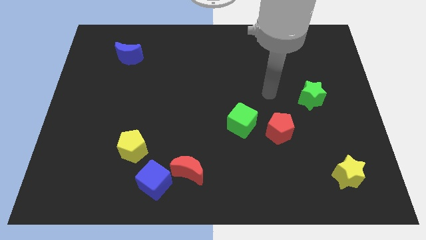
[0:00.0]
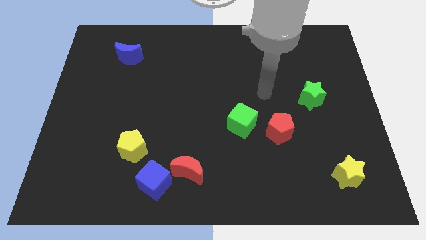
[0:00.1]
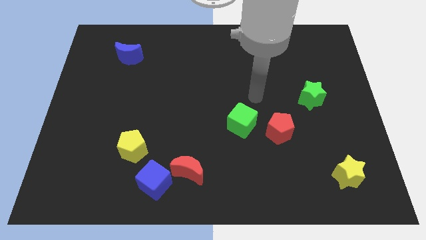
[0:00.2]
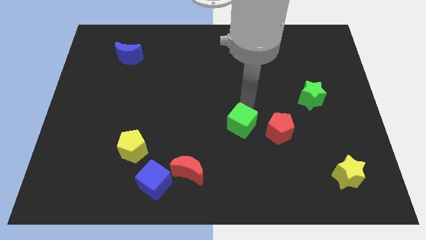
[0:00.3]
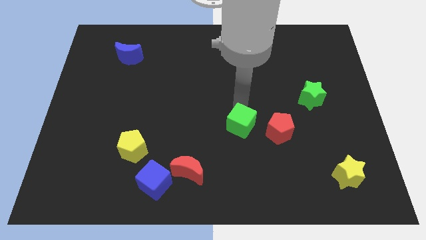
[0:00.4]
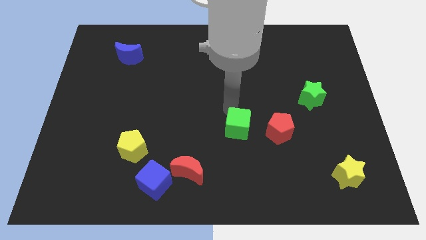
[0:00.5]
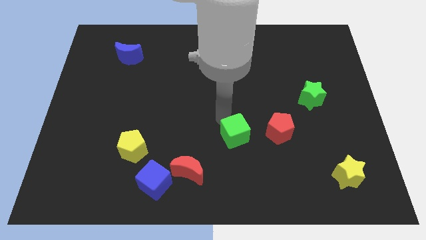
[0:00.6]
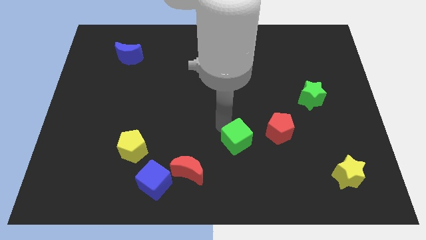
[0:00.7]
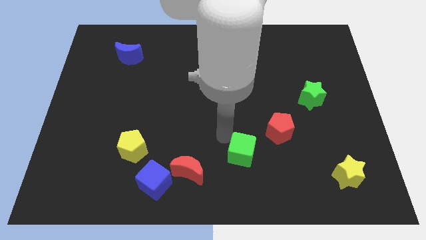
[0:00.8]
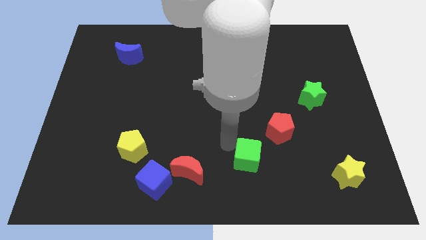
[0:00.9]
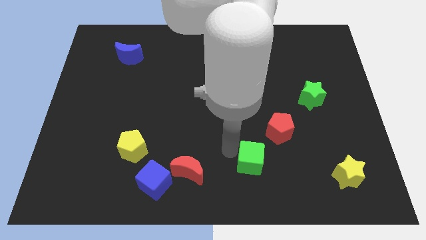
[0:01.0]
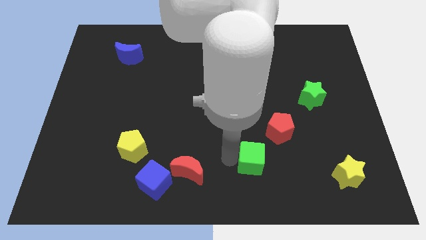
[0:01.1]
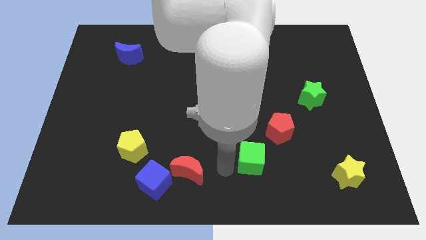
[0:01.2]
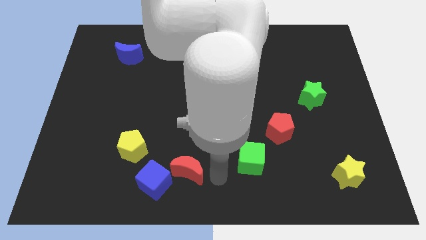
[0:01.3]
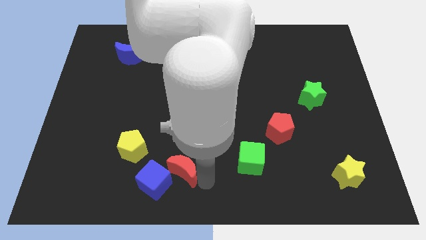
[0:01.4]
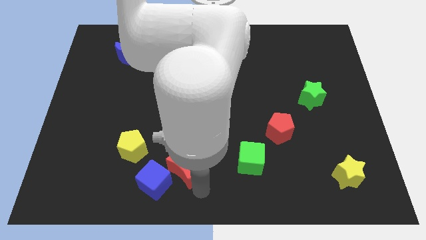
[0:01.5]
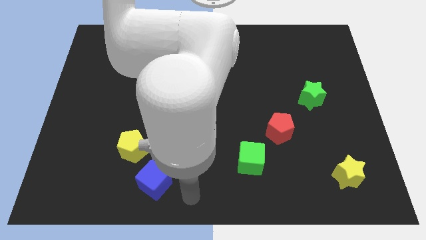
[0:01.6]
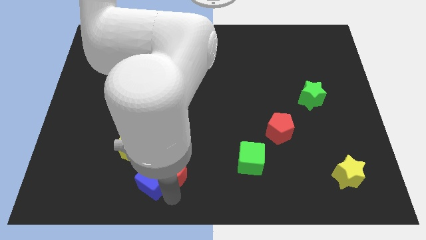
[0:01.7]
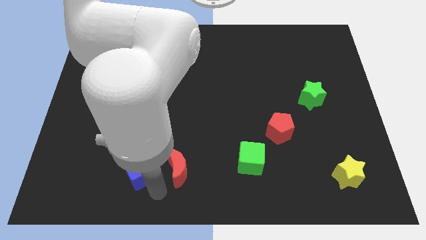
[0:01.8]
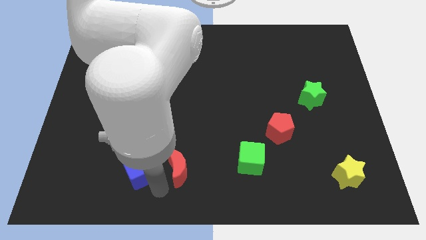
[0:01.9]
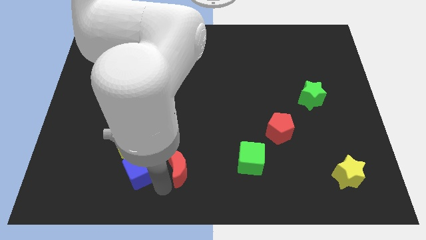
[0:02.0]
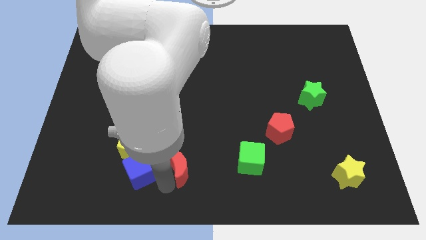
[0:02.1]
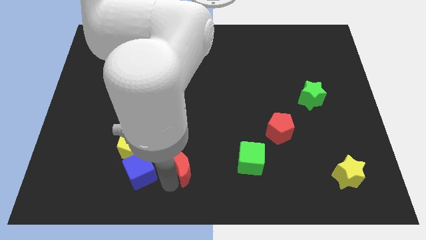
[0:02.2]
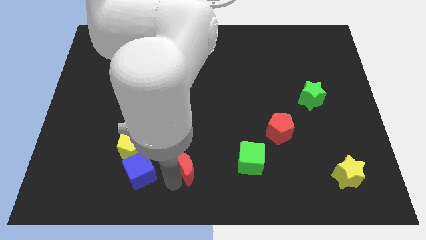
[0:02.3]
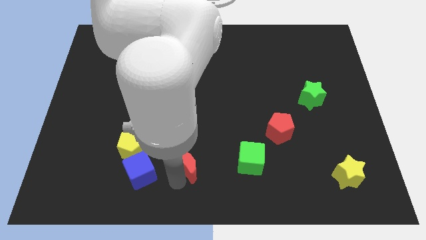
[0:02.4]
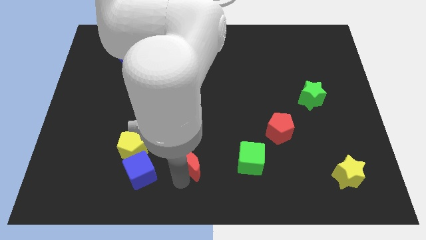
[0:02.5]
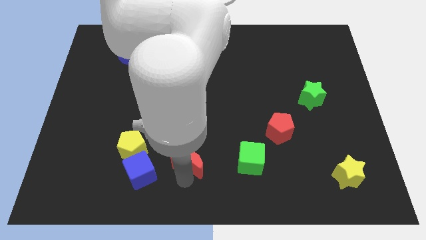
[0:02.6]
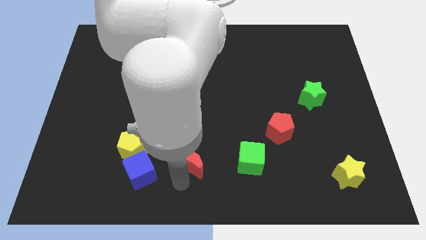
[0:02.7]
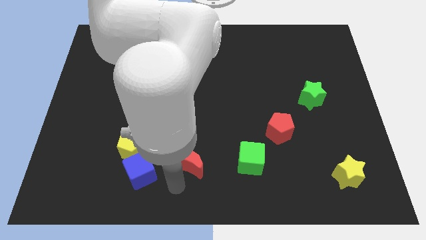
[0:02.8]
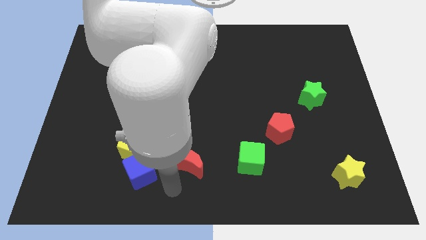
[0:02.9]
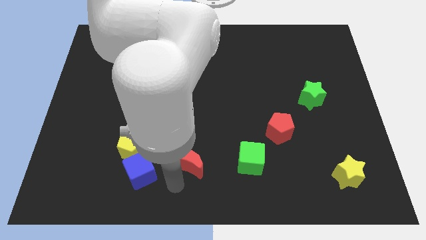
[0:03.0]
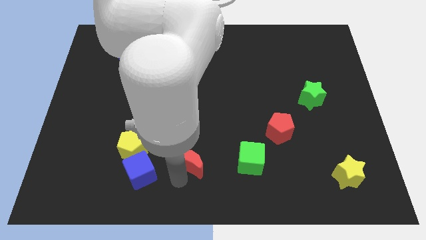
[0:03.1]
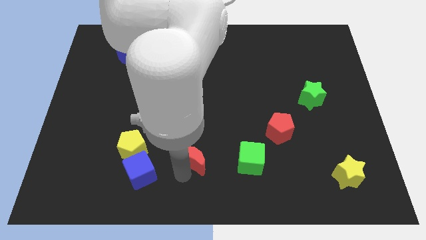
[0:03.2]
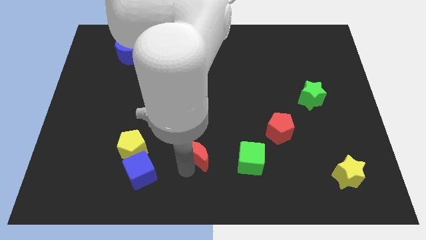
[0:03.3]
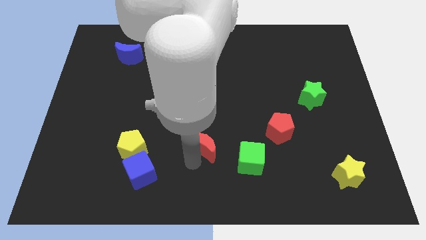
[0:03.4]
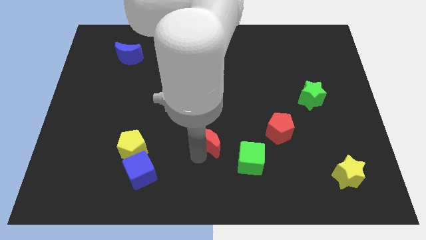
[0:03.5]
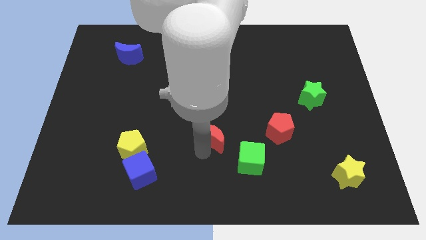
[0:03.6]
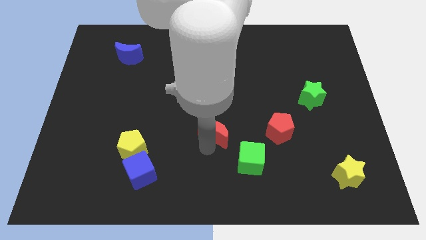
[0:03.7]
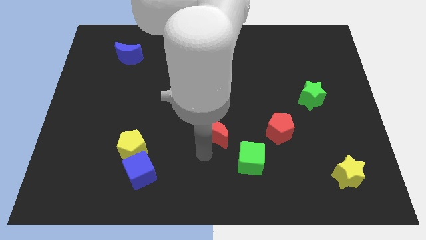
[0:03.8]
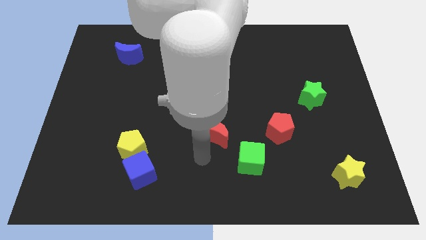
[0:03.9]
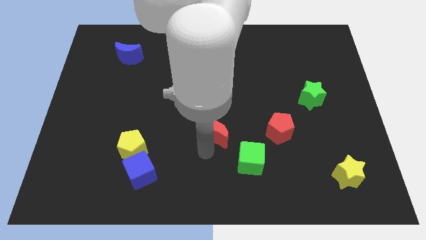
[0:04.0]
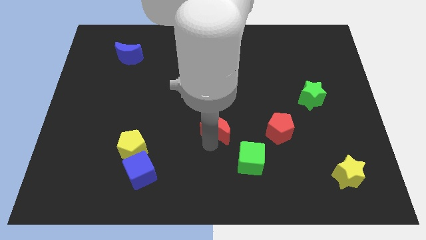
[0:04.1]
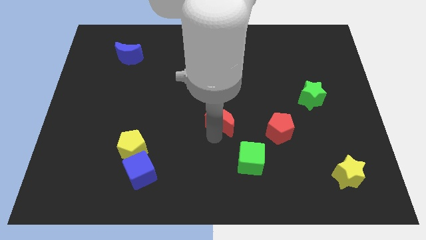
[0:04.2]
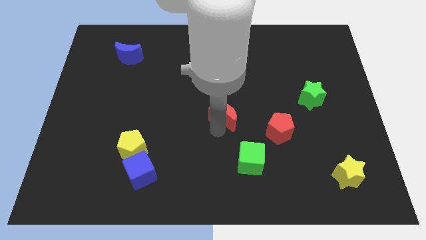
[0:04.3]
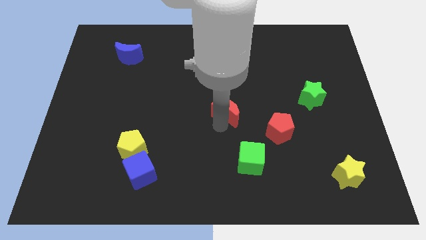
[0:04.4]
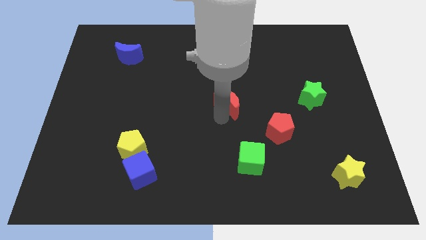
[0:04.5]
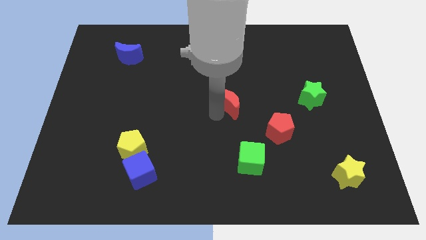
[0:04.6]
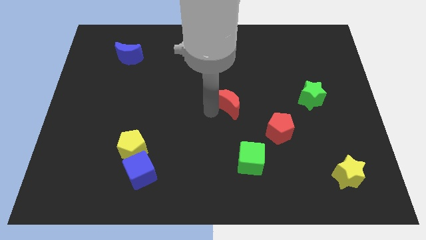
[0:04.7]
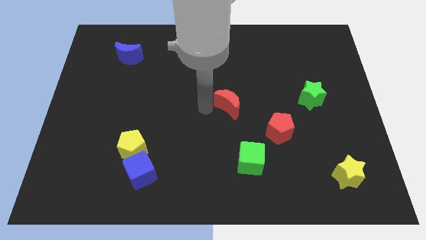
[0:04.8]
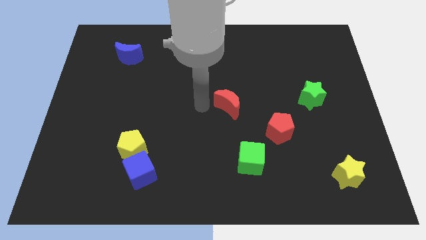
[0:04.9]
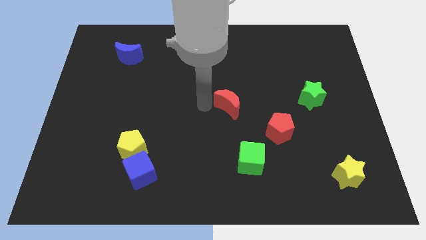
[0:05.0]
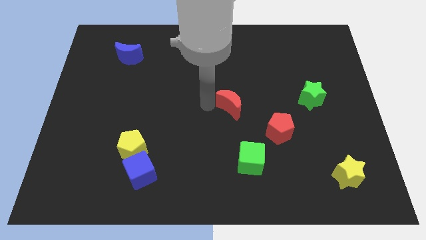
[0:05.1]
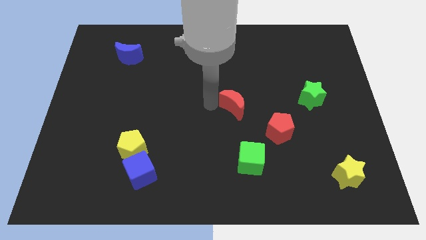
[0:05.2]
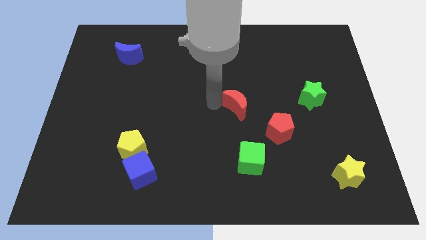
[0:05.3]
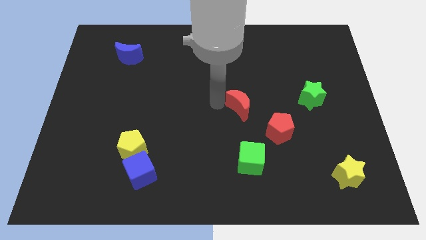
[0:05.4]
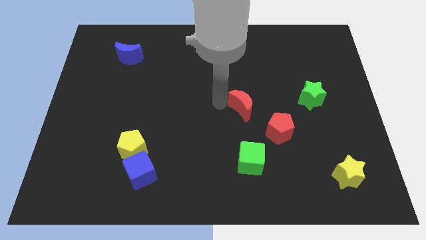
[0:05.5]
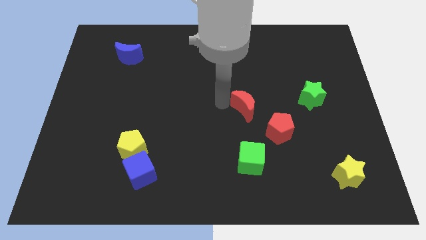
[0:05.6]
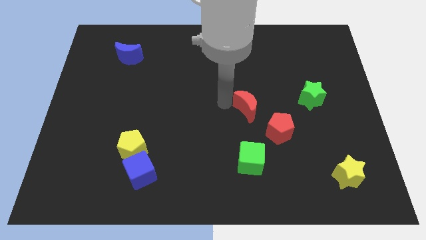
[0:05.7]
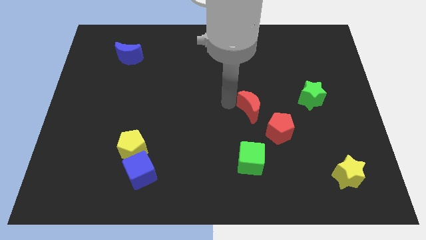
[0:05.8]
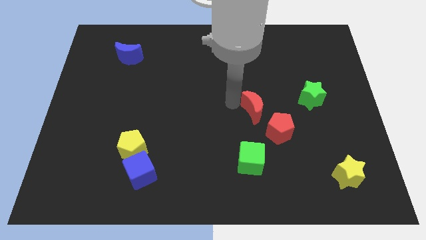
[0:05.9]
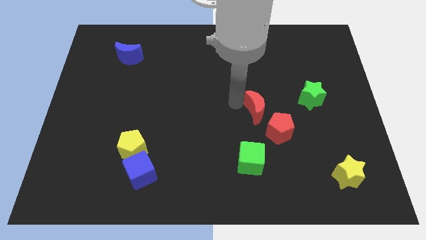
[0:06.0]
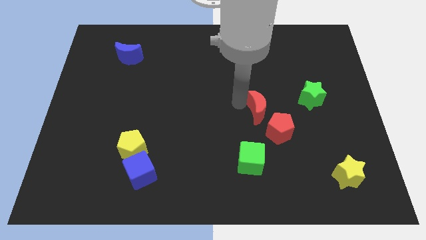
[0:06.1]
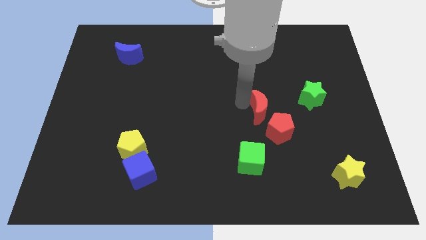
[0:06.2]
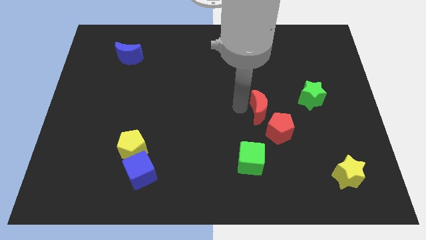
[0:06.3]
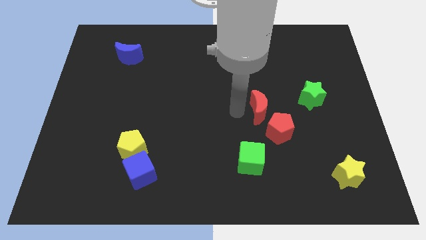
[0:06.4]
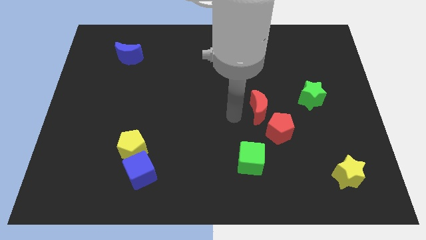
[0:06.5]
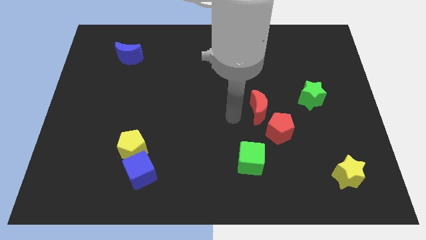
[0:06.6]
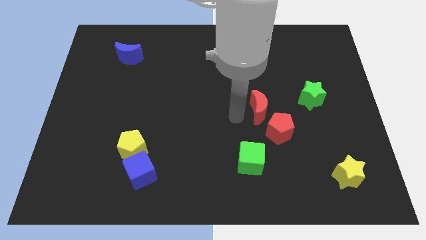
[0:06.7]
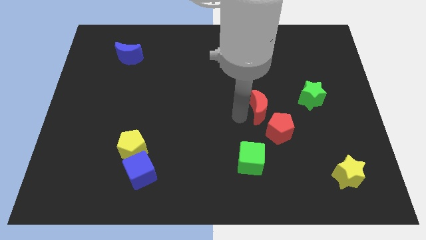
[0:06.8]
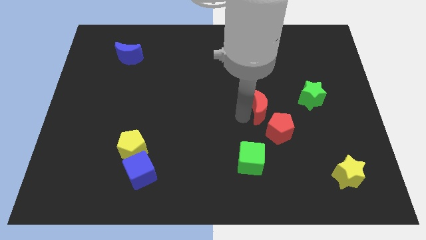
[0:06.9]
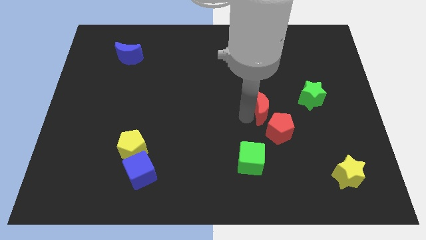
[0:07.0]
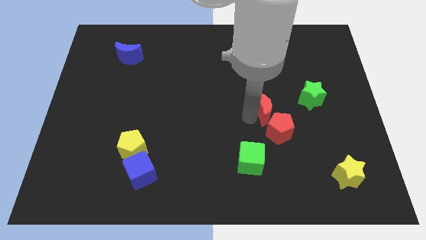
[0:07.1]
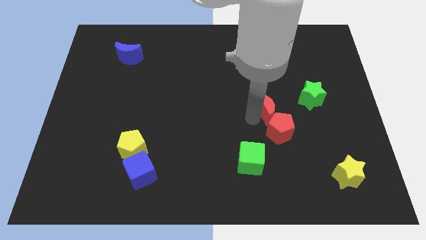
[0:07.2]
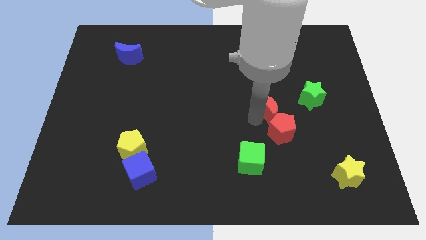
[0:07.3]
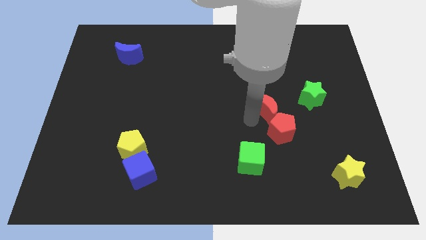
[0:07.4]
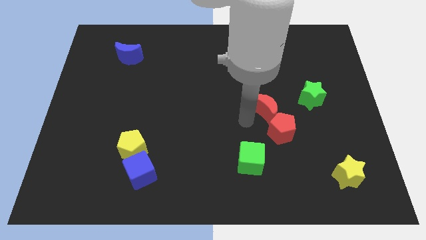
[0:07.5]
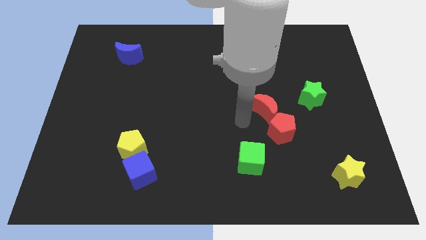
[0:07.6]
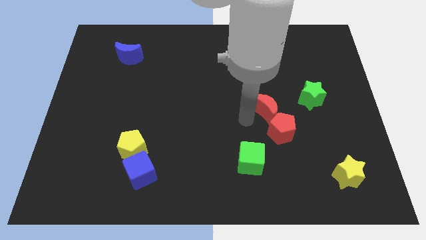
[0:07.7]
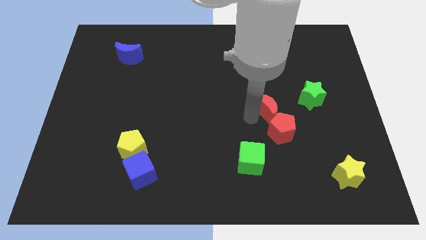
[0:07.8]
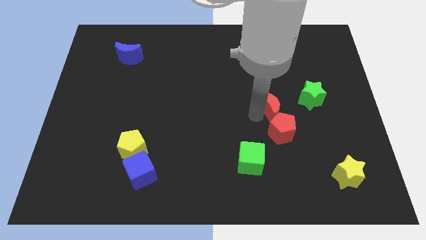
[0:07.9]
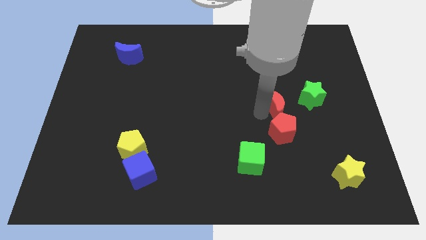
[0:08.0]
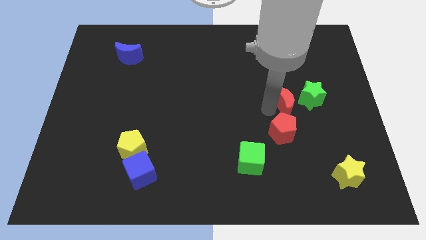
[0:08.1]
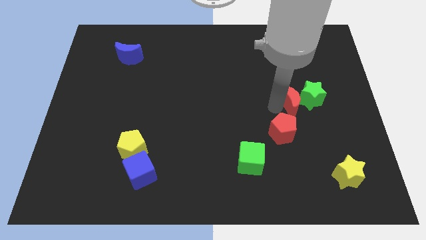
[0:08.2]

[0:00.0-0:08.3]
slide the red moon next to the green star
